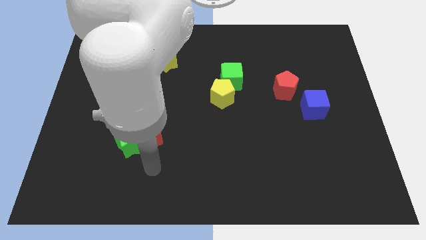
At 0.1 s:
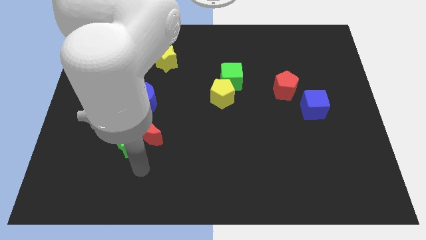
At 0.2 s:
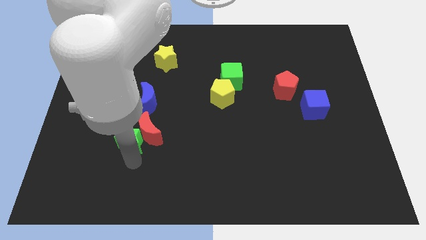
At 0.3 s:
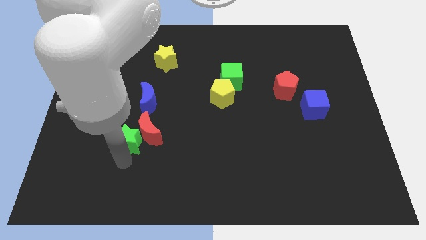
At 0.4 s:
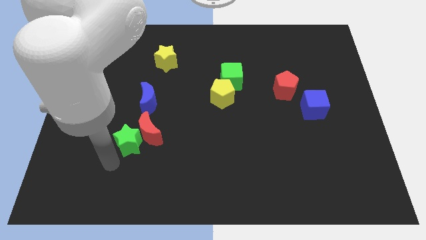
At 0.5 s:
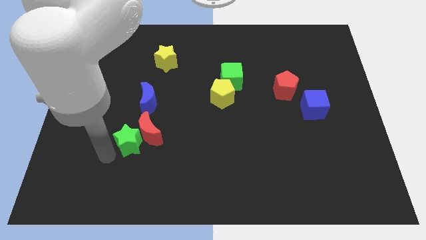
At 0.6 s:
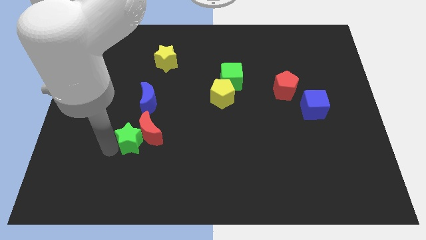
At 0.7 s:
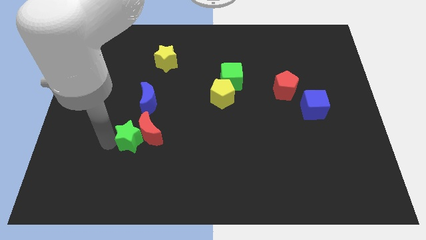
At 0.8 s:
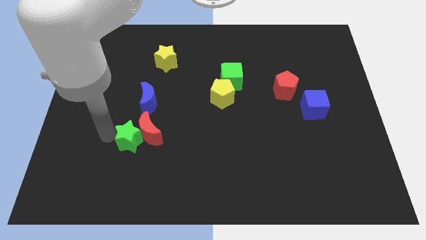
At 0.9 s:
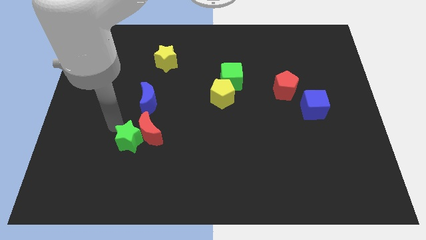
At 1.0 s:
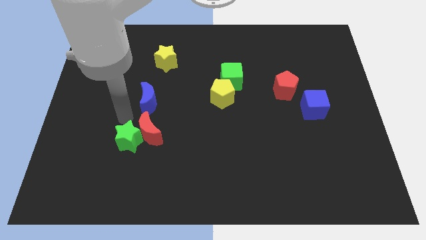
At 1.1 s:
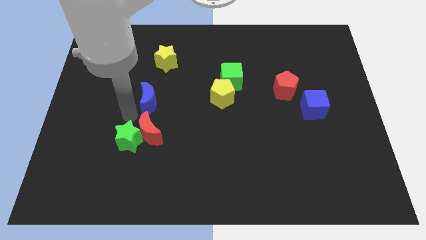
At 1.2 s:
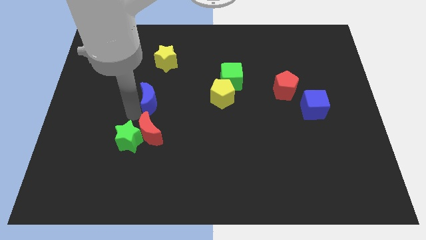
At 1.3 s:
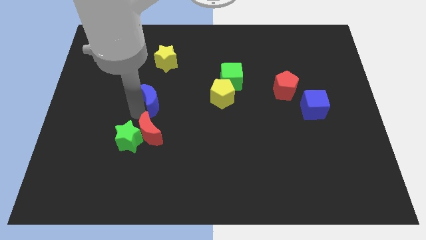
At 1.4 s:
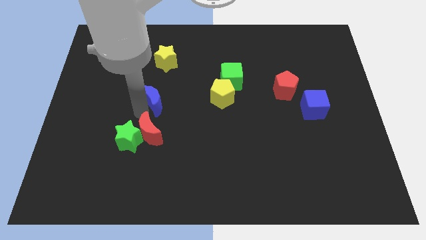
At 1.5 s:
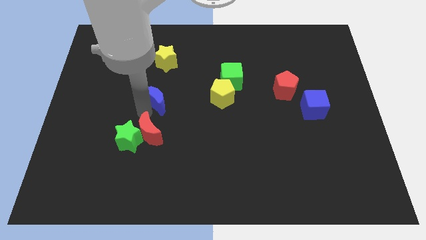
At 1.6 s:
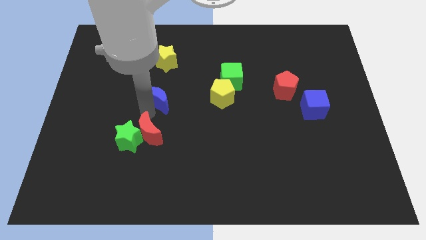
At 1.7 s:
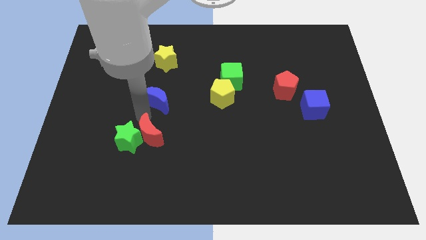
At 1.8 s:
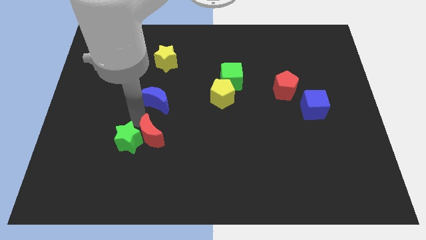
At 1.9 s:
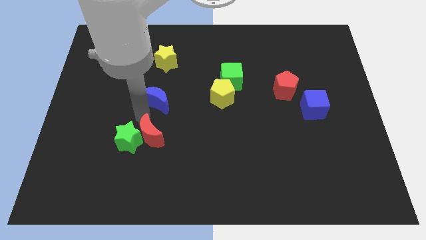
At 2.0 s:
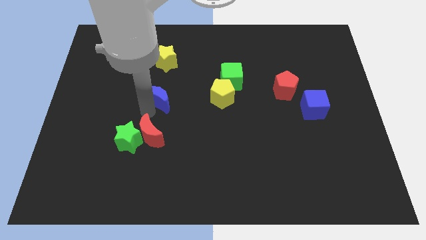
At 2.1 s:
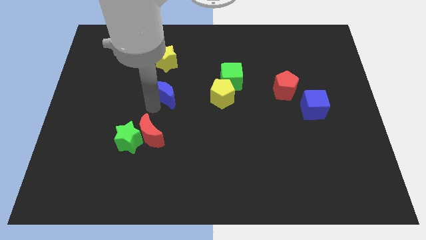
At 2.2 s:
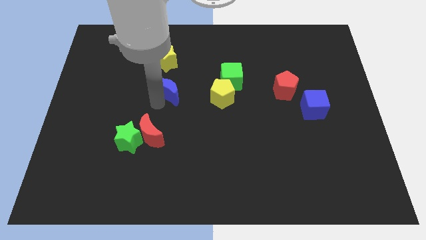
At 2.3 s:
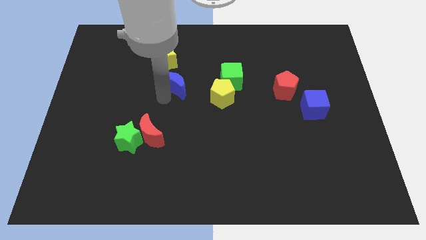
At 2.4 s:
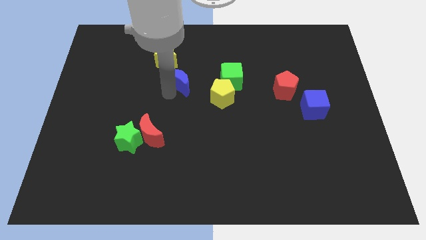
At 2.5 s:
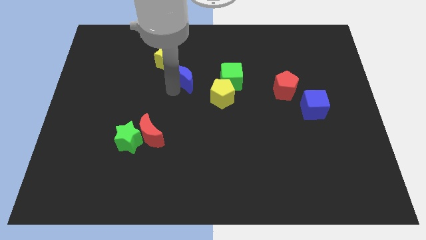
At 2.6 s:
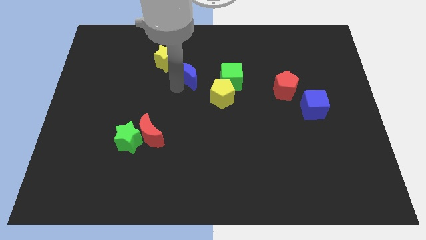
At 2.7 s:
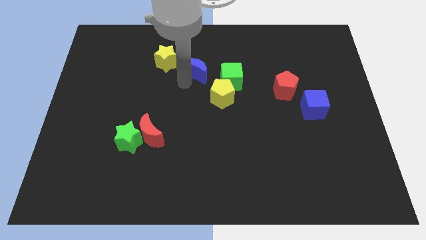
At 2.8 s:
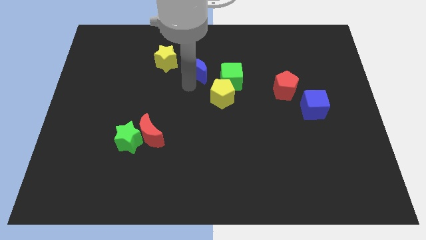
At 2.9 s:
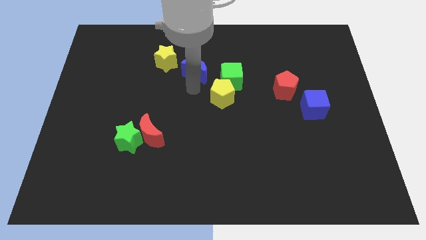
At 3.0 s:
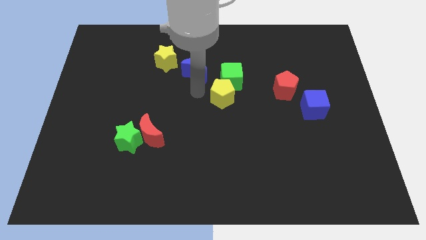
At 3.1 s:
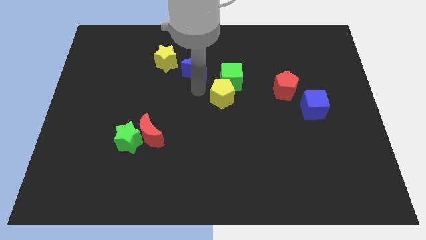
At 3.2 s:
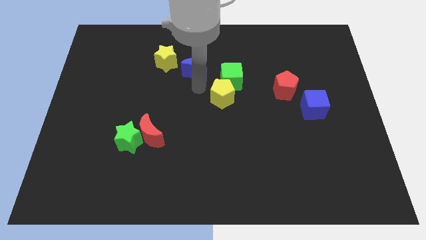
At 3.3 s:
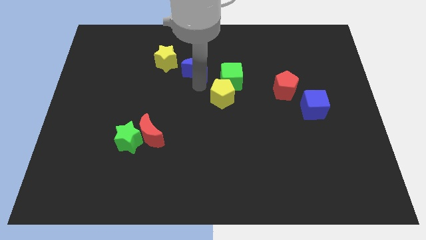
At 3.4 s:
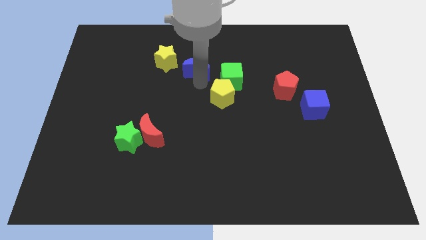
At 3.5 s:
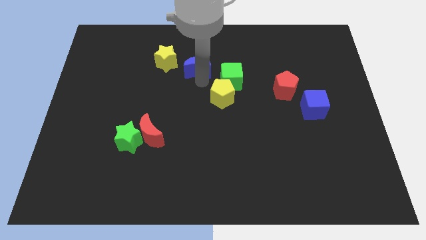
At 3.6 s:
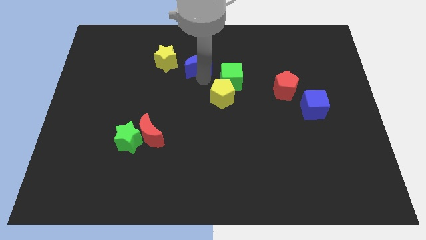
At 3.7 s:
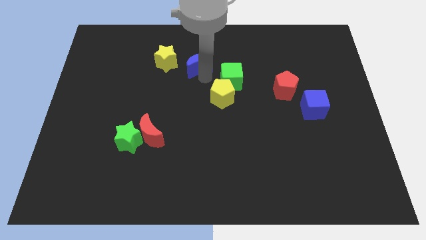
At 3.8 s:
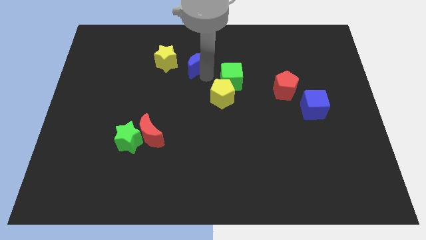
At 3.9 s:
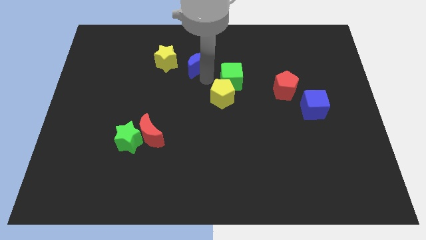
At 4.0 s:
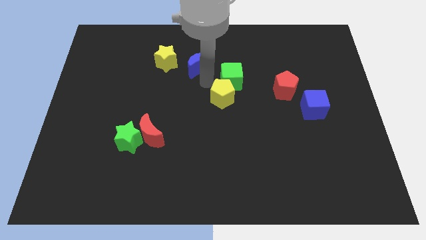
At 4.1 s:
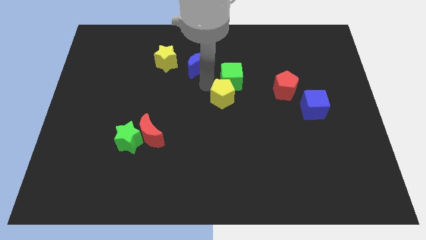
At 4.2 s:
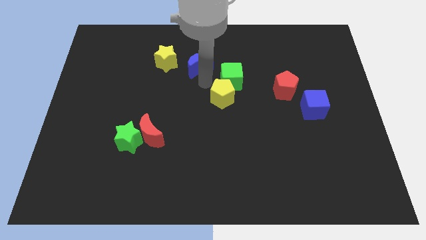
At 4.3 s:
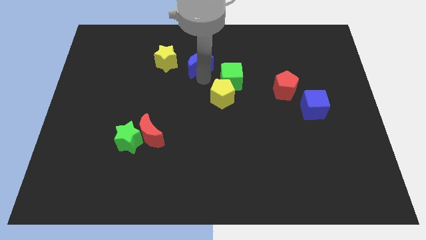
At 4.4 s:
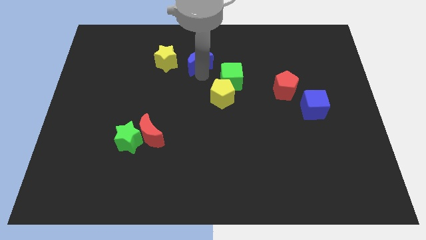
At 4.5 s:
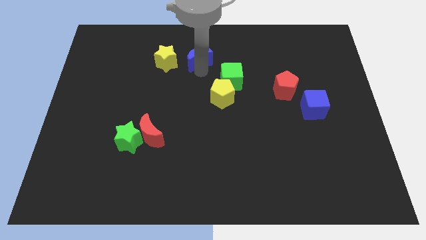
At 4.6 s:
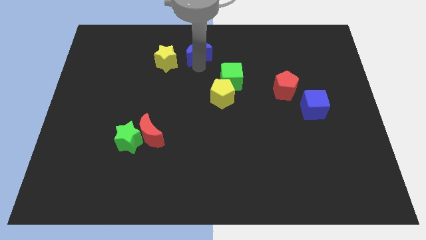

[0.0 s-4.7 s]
move the blue moon to the top

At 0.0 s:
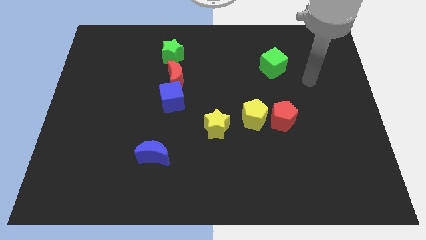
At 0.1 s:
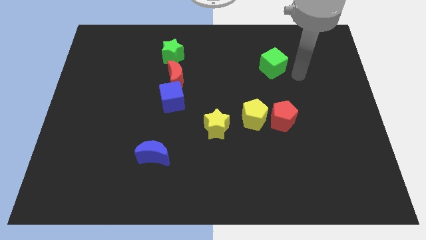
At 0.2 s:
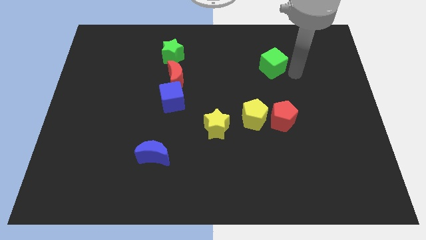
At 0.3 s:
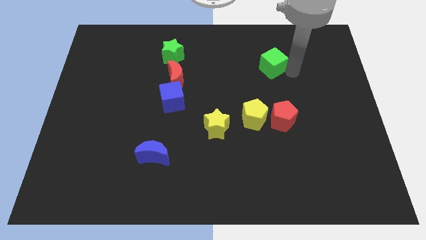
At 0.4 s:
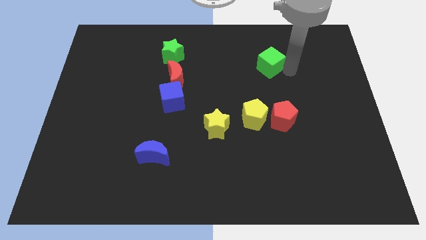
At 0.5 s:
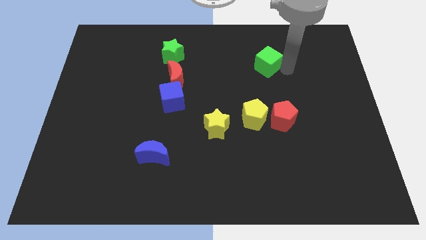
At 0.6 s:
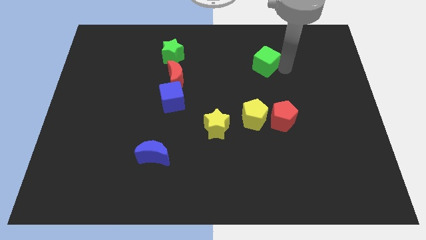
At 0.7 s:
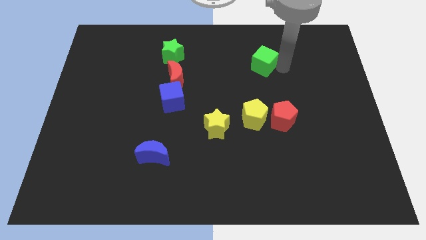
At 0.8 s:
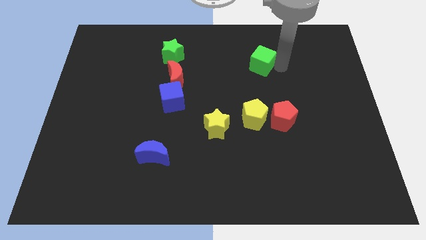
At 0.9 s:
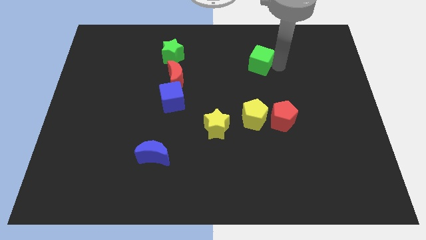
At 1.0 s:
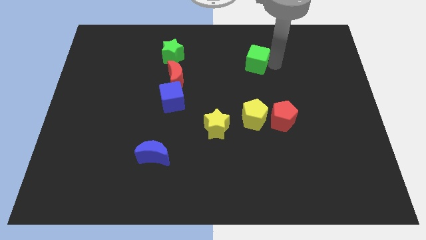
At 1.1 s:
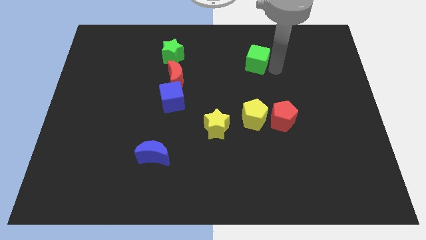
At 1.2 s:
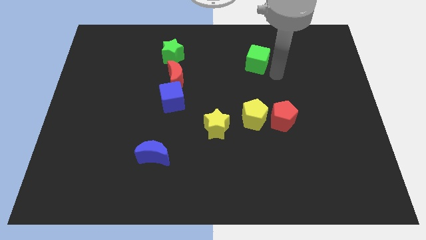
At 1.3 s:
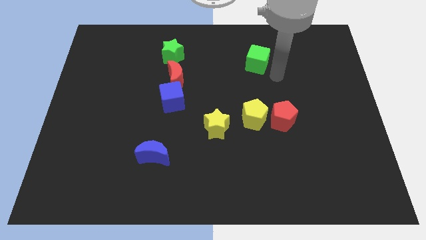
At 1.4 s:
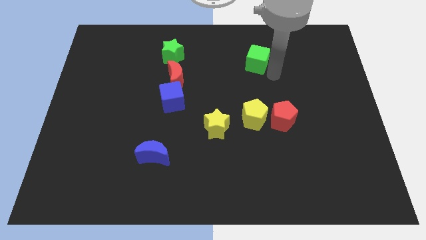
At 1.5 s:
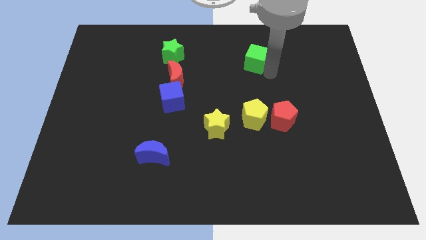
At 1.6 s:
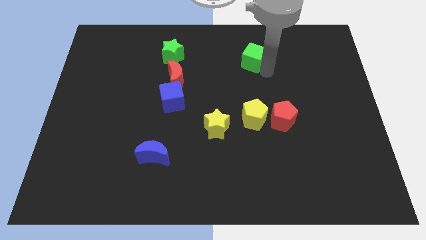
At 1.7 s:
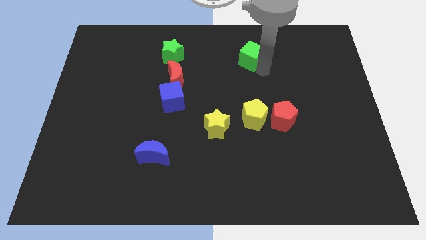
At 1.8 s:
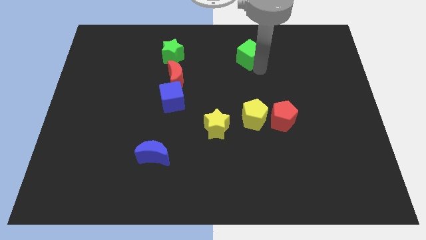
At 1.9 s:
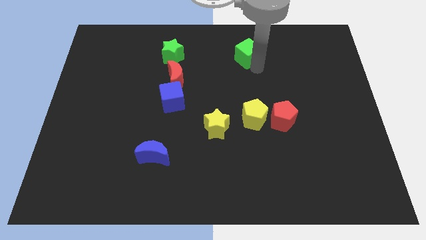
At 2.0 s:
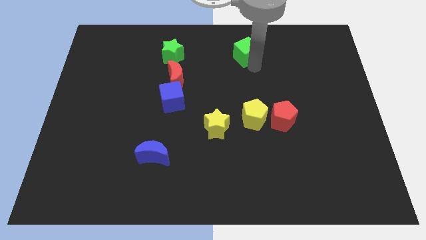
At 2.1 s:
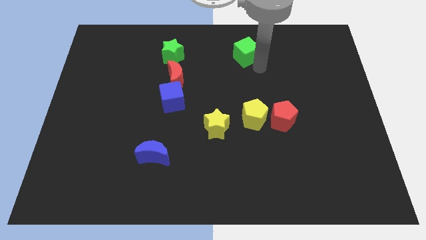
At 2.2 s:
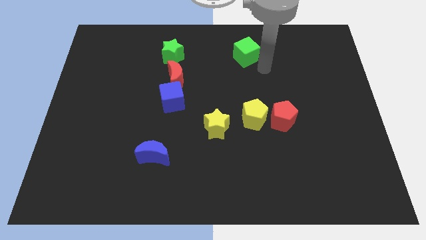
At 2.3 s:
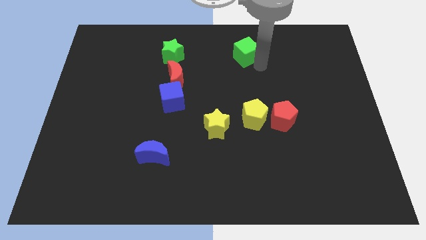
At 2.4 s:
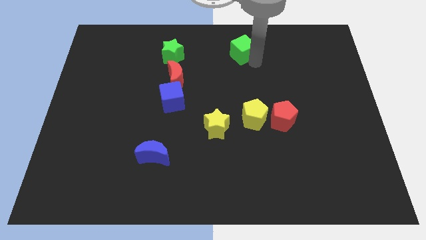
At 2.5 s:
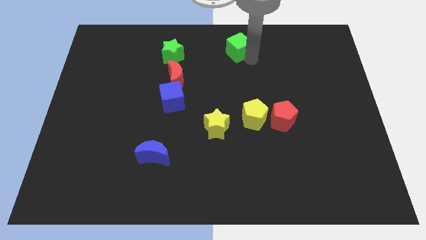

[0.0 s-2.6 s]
slide the green cube to the top side

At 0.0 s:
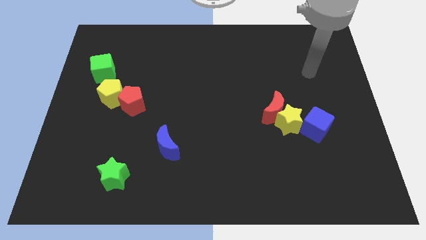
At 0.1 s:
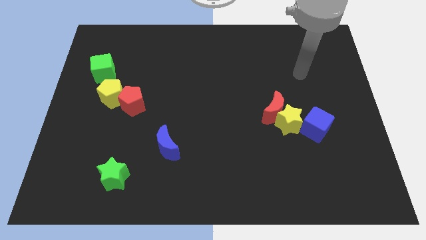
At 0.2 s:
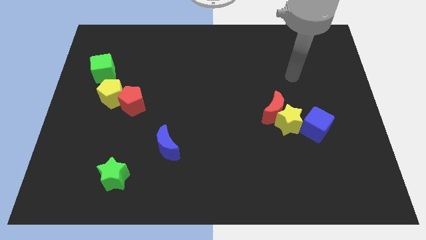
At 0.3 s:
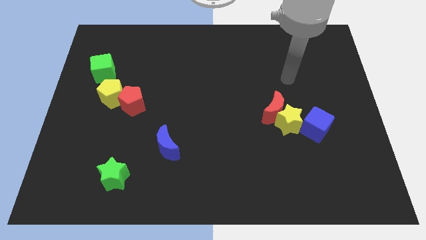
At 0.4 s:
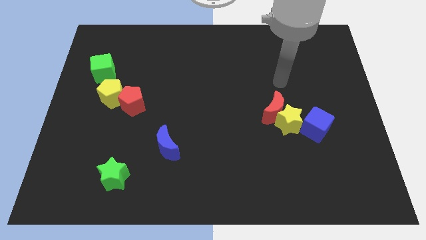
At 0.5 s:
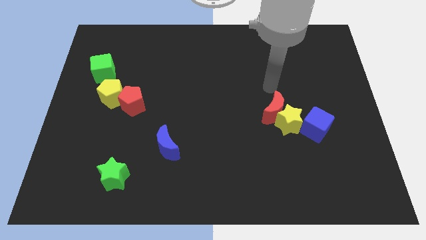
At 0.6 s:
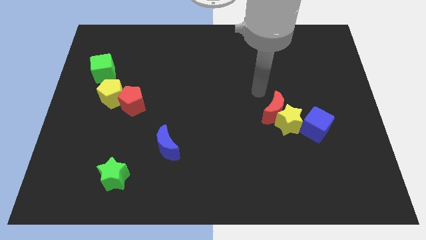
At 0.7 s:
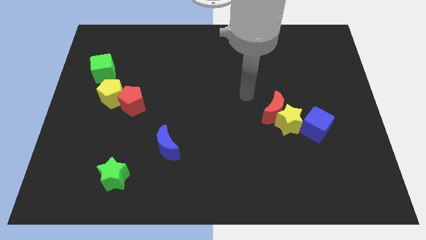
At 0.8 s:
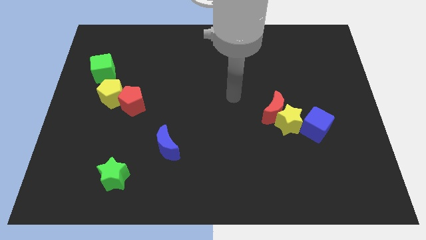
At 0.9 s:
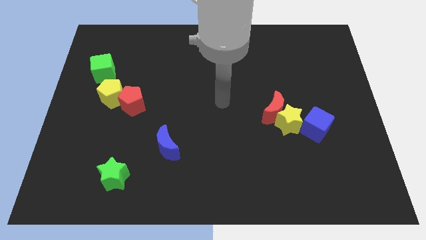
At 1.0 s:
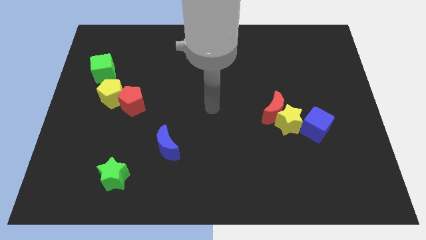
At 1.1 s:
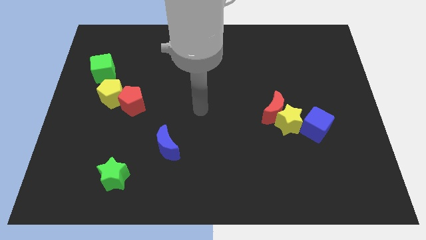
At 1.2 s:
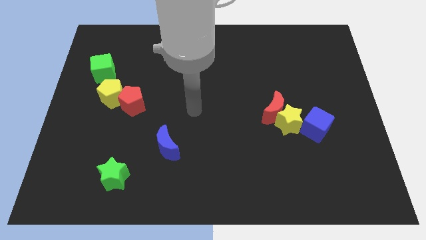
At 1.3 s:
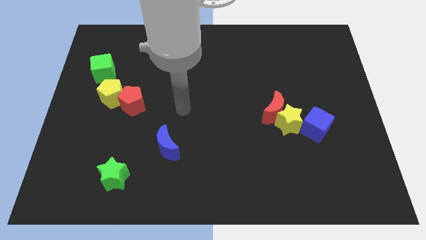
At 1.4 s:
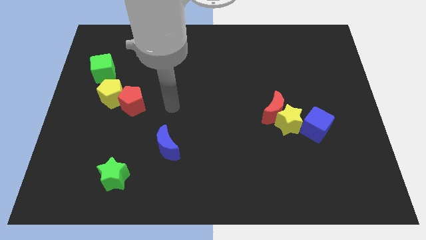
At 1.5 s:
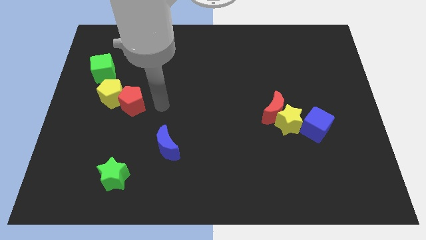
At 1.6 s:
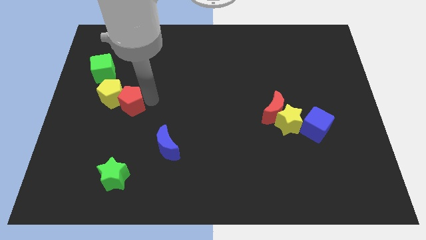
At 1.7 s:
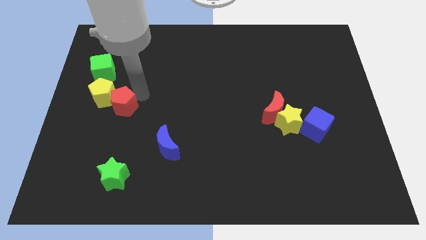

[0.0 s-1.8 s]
put the yellow pentagon to the center left
